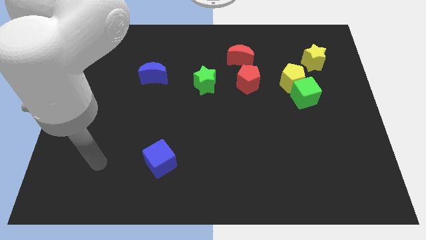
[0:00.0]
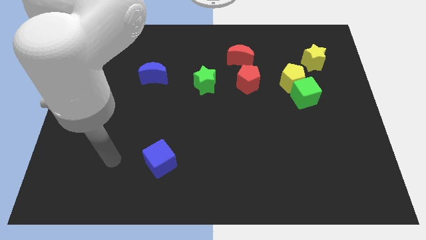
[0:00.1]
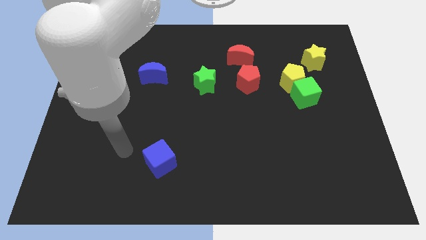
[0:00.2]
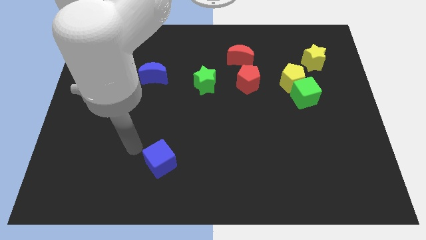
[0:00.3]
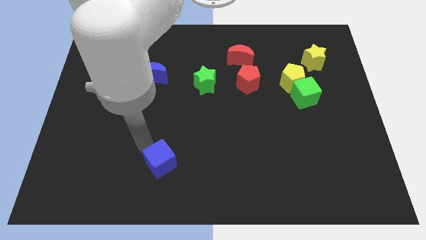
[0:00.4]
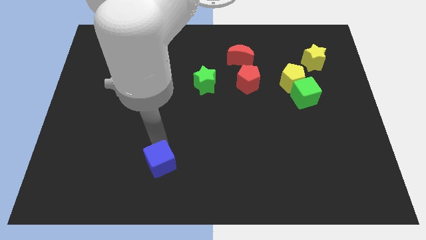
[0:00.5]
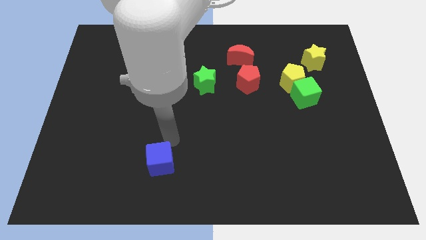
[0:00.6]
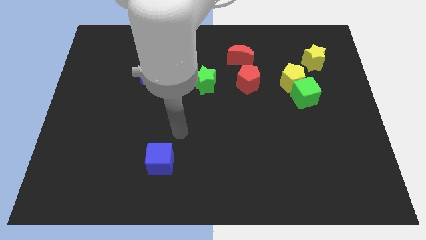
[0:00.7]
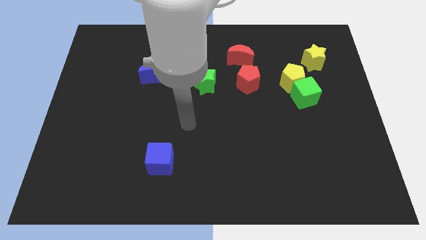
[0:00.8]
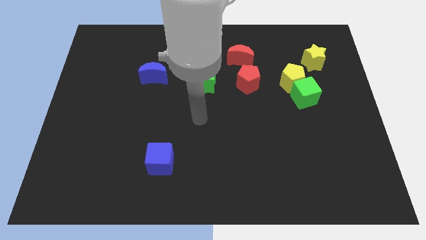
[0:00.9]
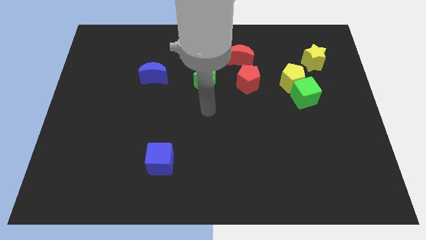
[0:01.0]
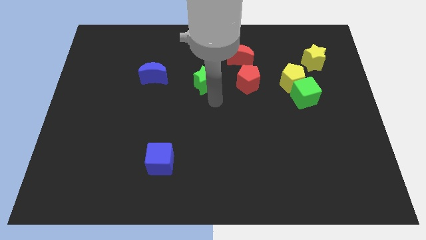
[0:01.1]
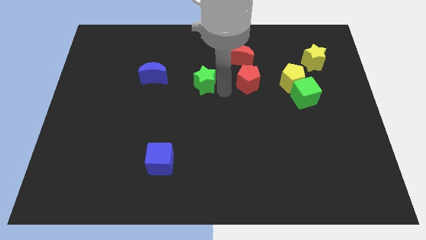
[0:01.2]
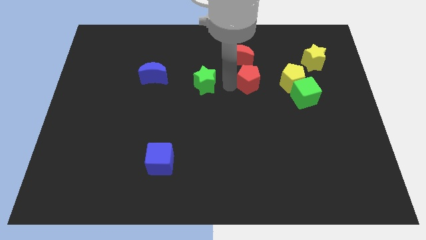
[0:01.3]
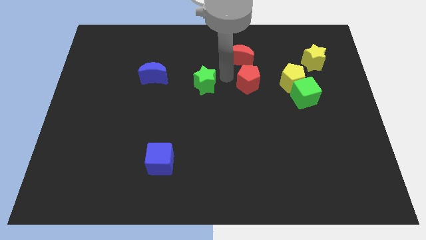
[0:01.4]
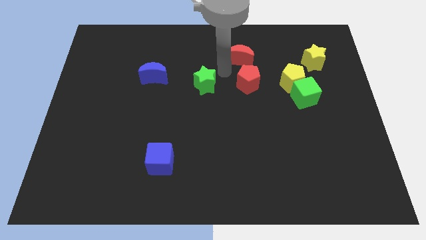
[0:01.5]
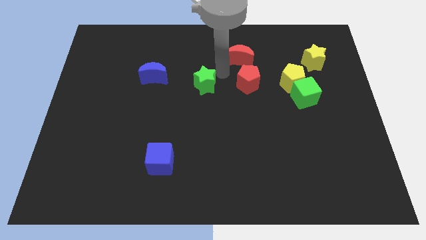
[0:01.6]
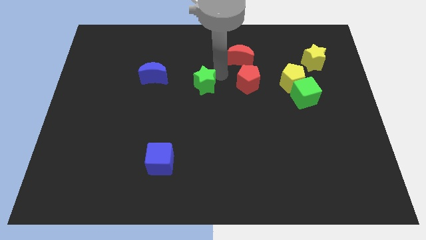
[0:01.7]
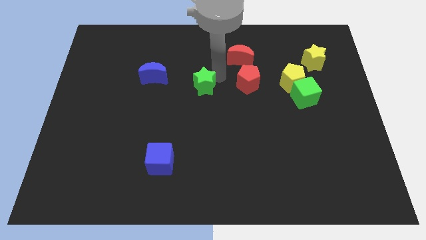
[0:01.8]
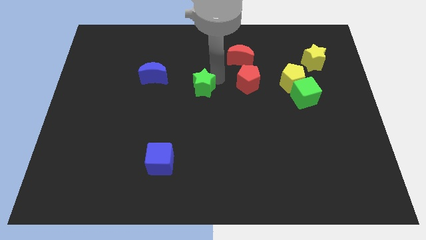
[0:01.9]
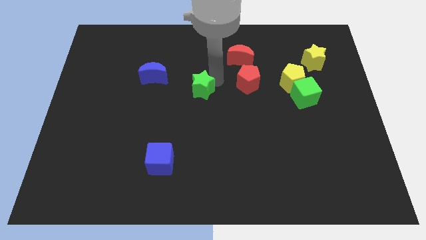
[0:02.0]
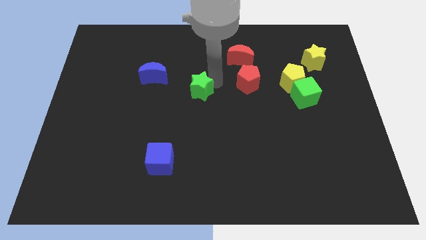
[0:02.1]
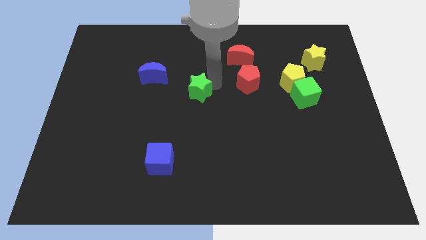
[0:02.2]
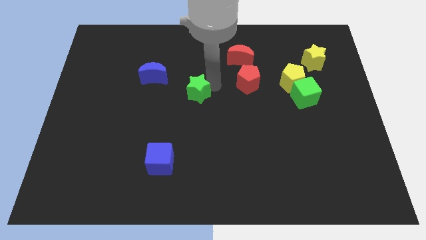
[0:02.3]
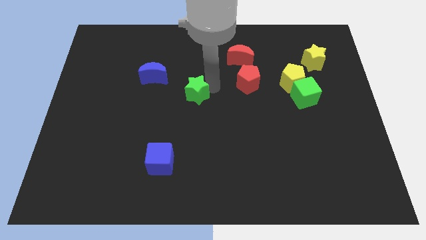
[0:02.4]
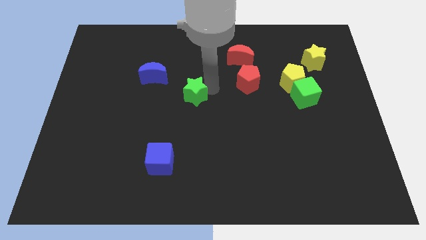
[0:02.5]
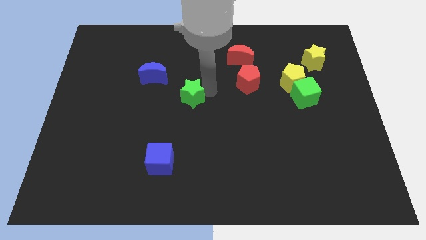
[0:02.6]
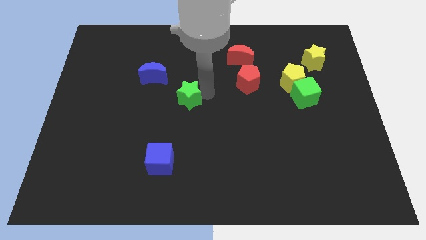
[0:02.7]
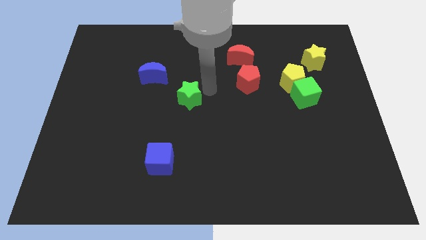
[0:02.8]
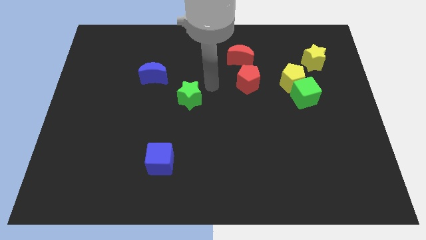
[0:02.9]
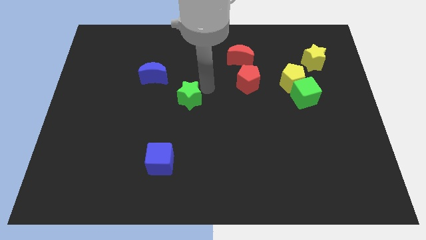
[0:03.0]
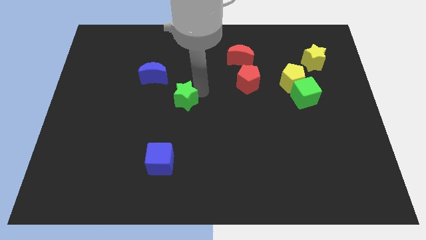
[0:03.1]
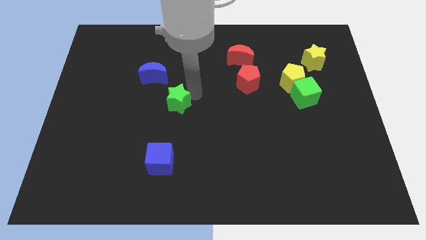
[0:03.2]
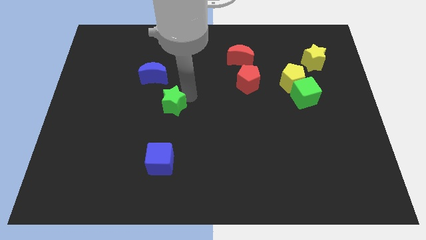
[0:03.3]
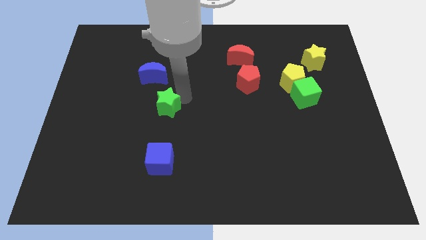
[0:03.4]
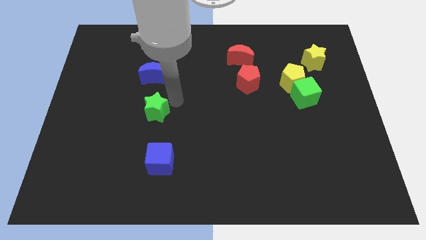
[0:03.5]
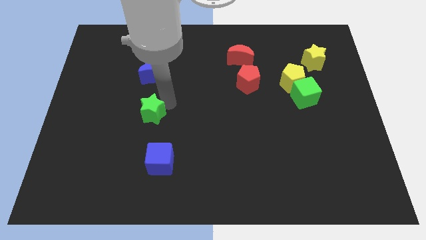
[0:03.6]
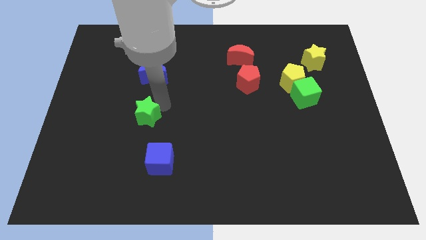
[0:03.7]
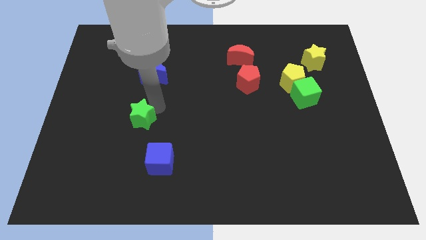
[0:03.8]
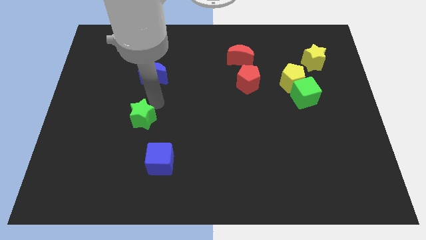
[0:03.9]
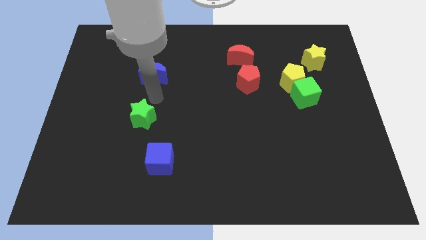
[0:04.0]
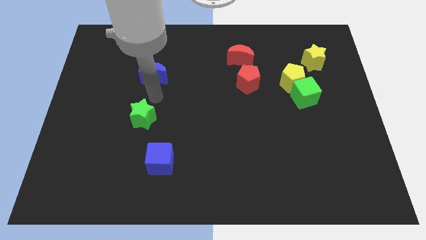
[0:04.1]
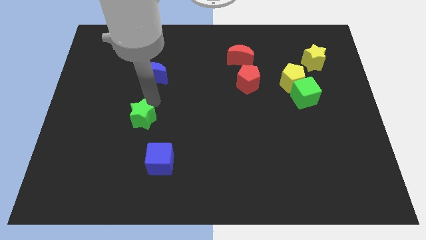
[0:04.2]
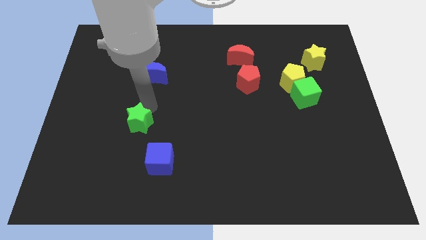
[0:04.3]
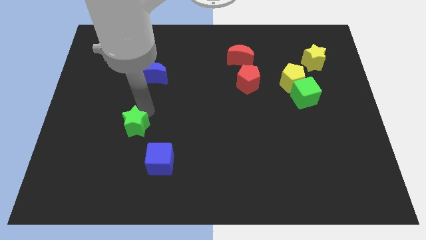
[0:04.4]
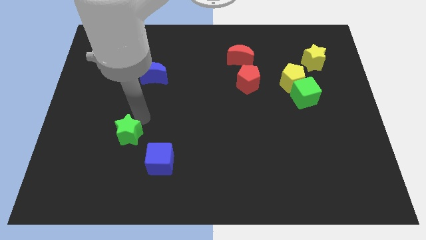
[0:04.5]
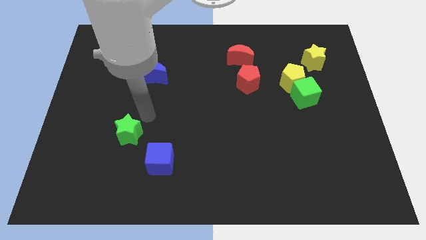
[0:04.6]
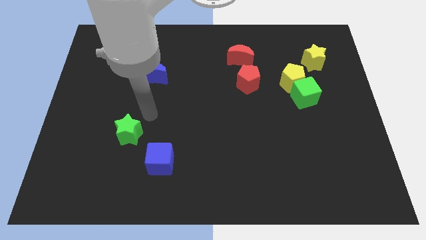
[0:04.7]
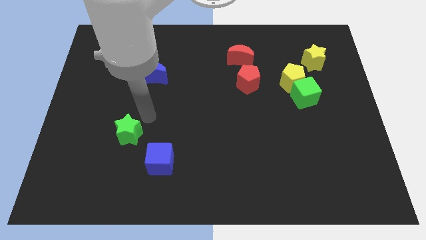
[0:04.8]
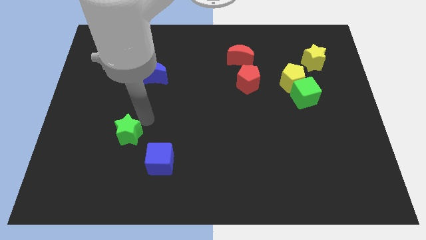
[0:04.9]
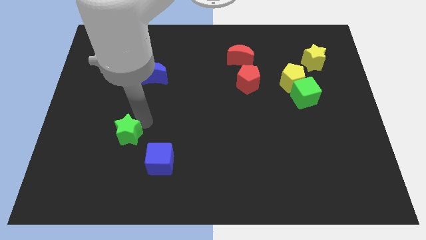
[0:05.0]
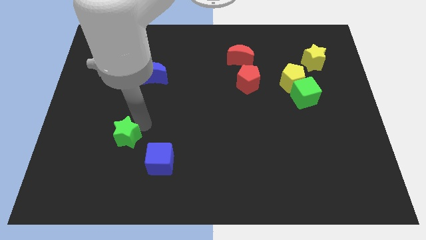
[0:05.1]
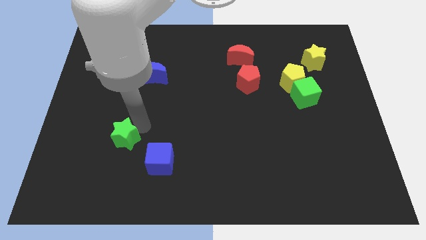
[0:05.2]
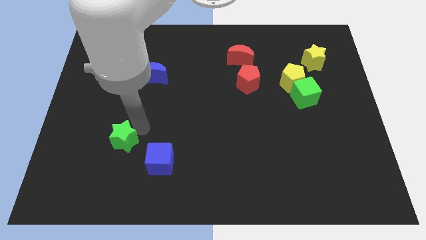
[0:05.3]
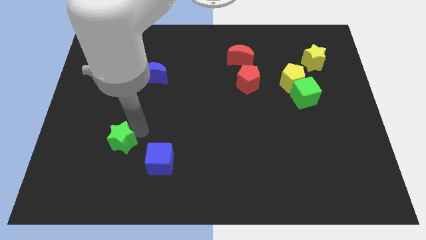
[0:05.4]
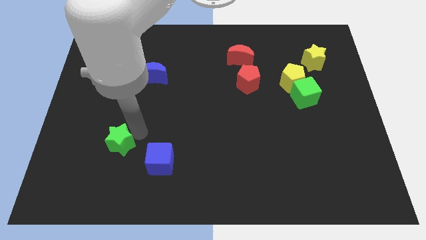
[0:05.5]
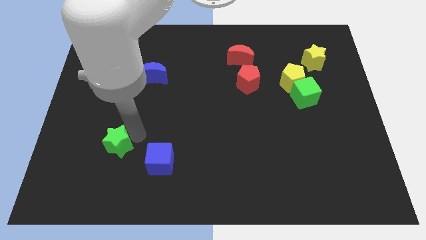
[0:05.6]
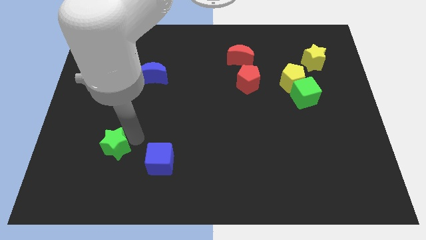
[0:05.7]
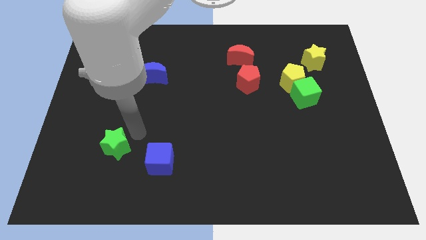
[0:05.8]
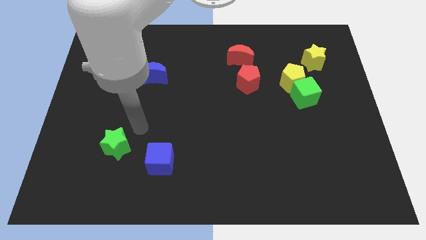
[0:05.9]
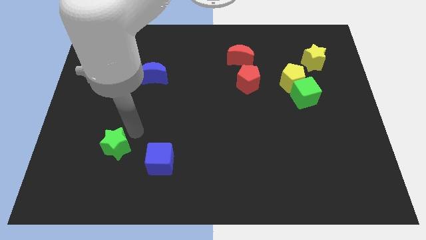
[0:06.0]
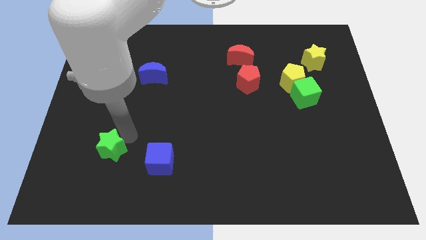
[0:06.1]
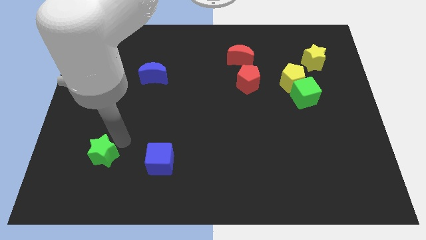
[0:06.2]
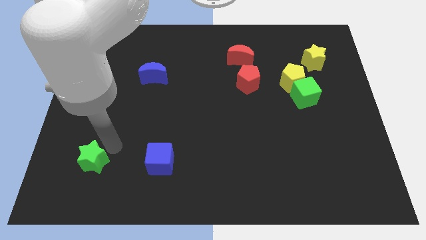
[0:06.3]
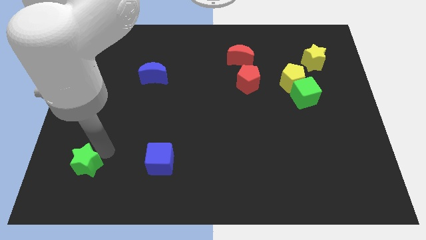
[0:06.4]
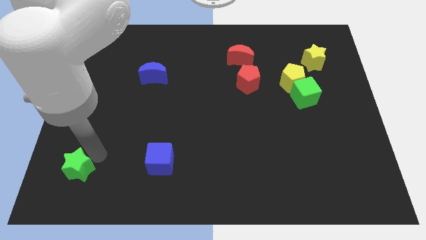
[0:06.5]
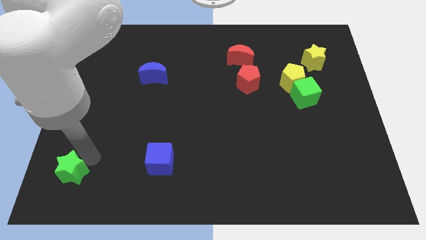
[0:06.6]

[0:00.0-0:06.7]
push the green star to the bottom left corner

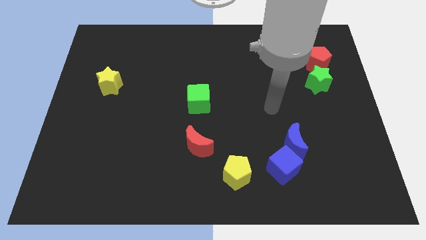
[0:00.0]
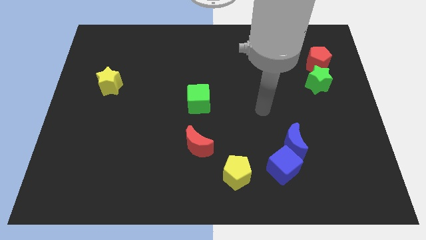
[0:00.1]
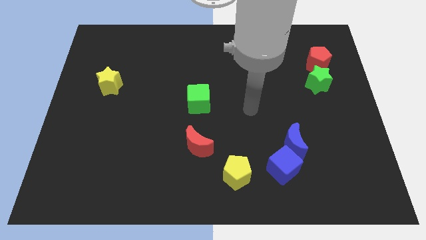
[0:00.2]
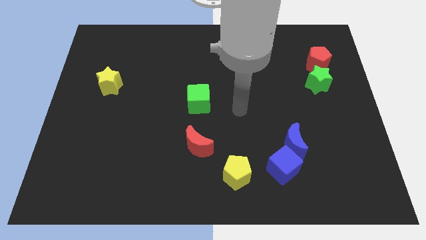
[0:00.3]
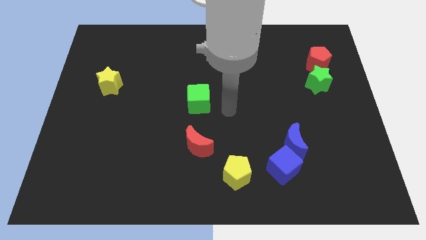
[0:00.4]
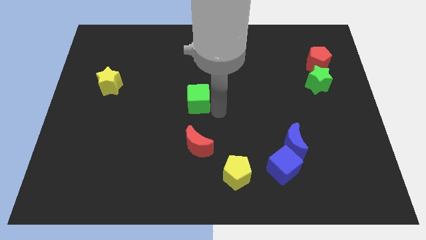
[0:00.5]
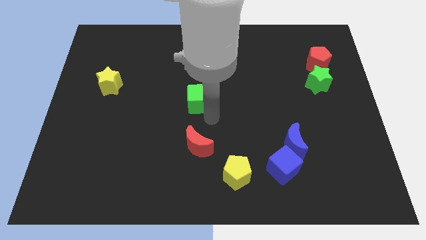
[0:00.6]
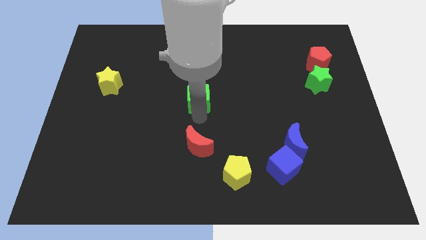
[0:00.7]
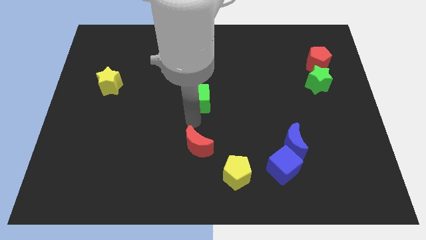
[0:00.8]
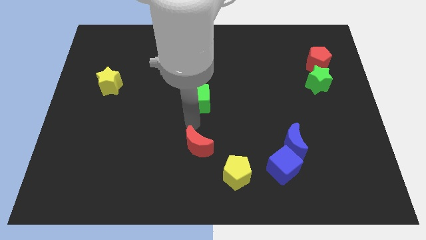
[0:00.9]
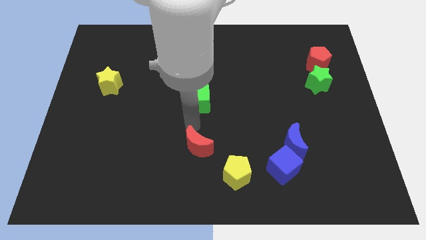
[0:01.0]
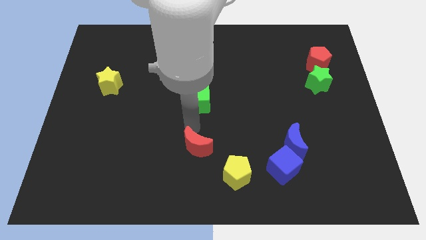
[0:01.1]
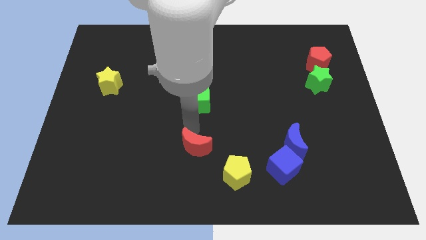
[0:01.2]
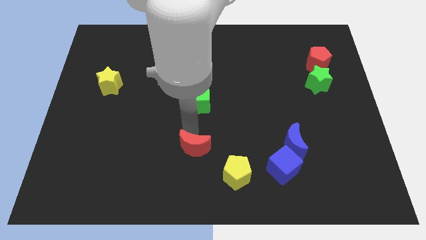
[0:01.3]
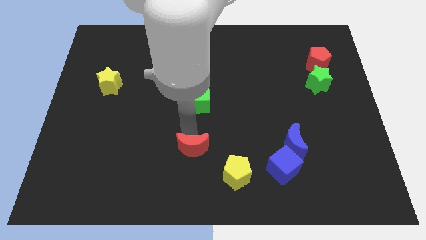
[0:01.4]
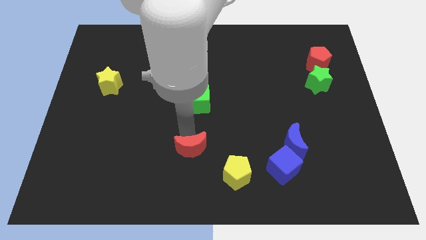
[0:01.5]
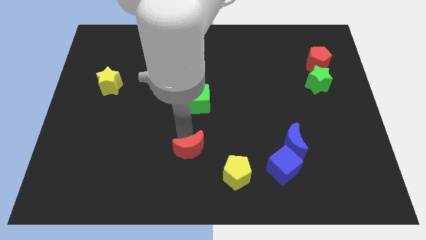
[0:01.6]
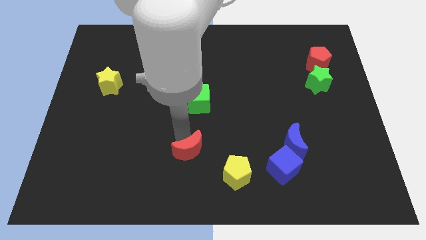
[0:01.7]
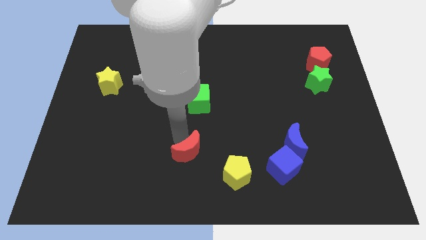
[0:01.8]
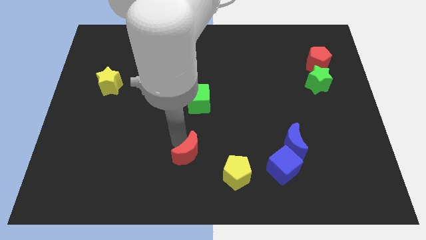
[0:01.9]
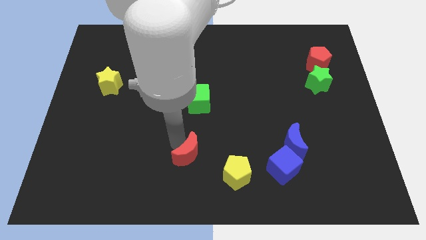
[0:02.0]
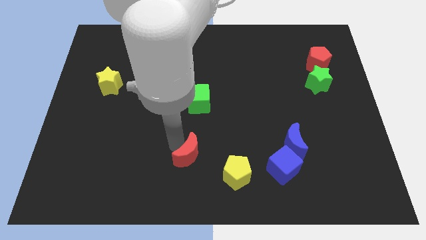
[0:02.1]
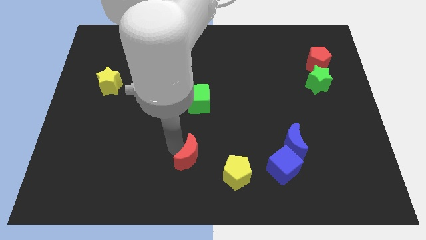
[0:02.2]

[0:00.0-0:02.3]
move the red moon to the bottom side

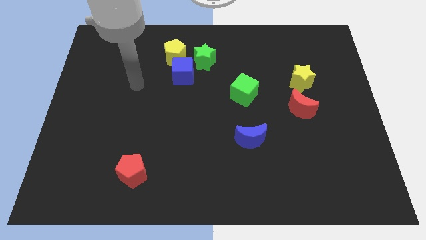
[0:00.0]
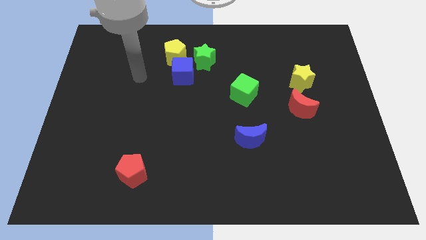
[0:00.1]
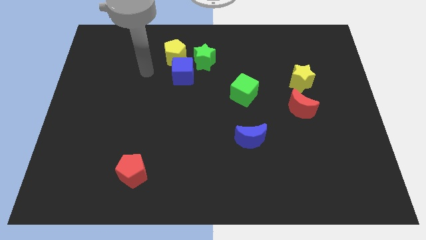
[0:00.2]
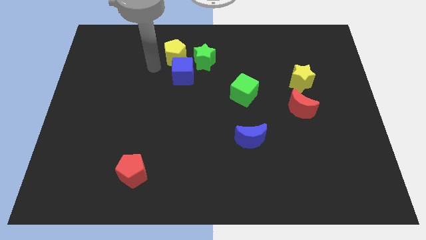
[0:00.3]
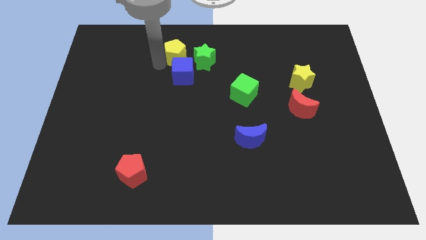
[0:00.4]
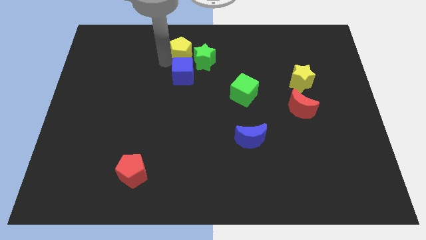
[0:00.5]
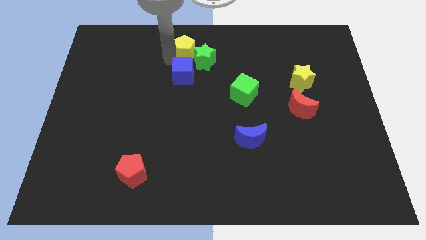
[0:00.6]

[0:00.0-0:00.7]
move the yellow pentagon to the top side
